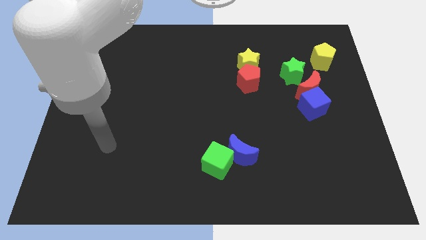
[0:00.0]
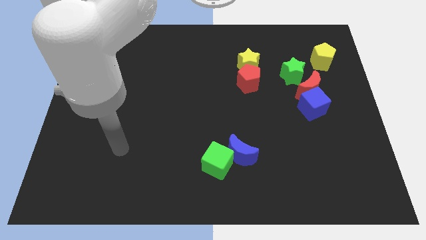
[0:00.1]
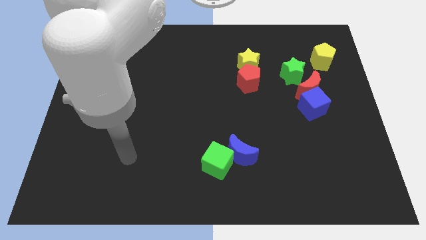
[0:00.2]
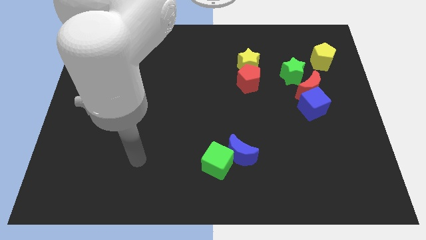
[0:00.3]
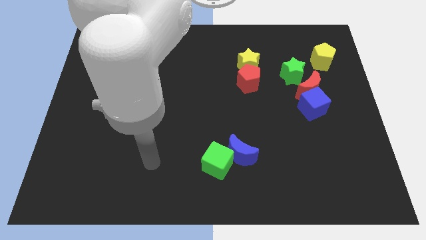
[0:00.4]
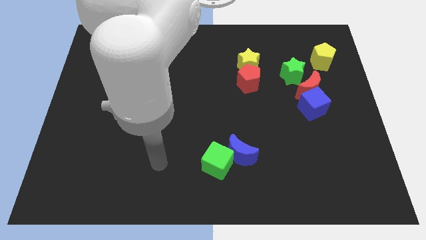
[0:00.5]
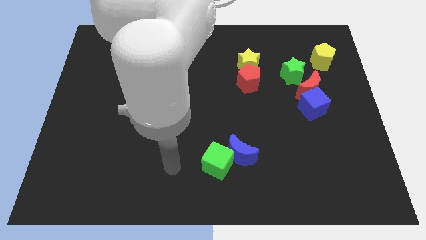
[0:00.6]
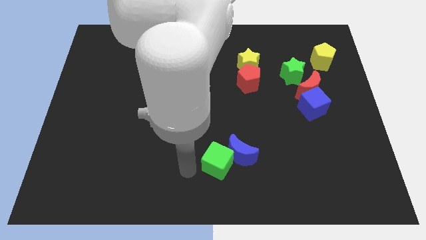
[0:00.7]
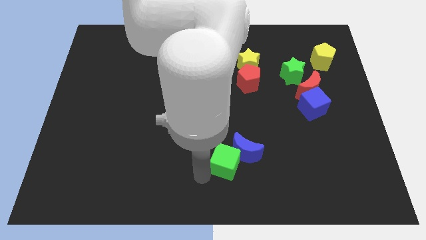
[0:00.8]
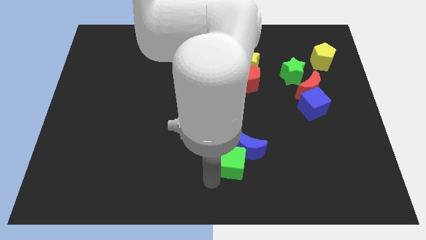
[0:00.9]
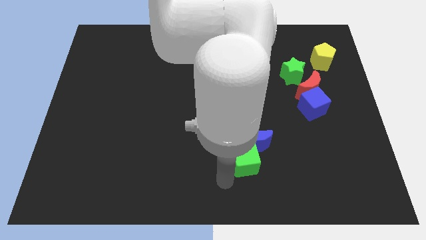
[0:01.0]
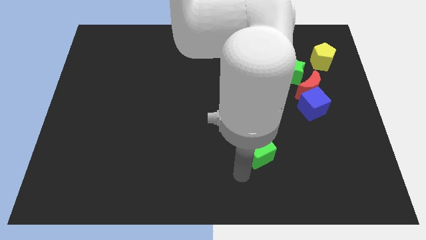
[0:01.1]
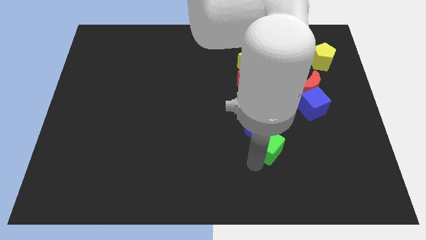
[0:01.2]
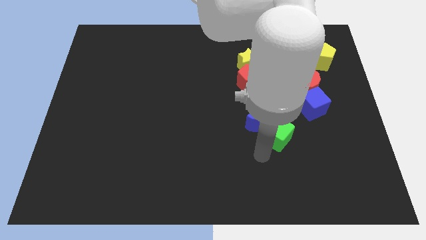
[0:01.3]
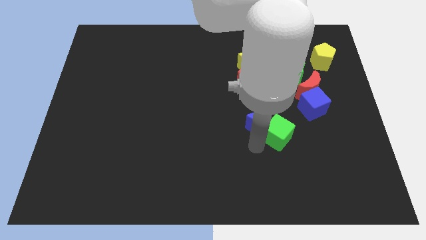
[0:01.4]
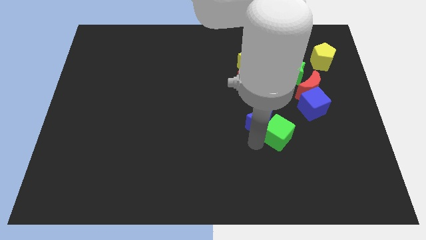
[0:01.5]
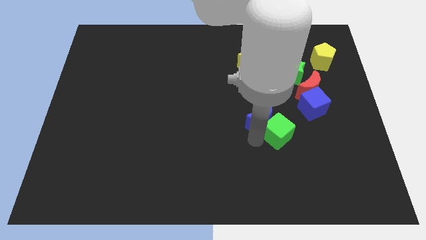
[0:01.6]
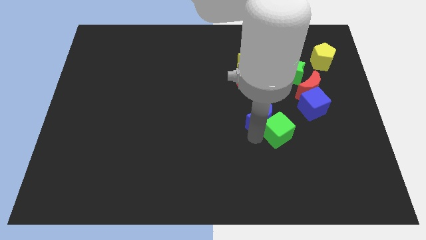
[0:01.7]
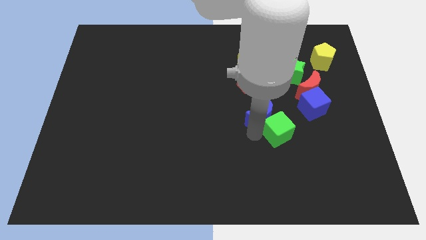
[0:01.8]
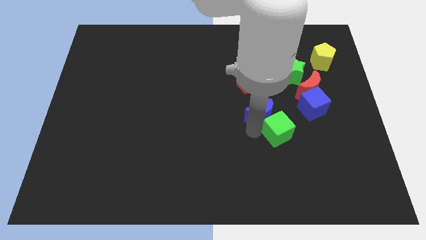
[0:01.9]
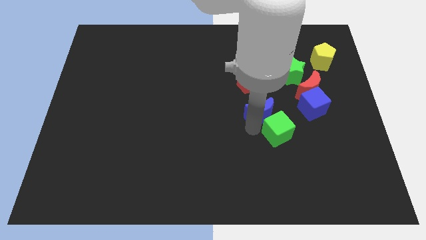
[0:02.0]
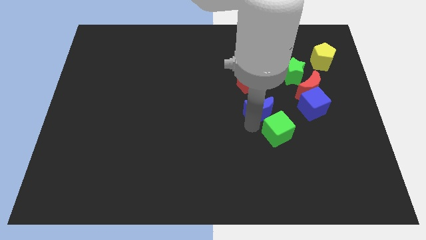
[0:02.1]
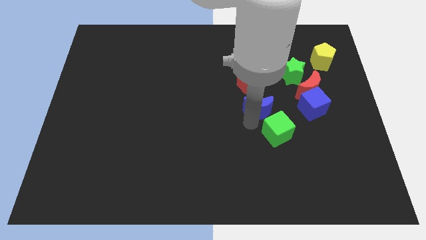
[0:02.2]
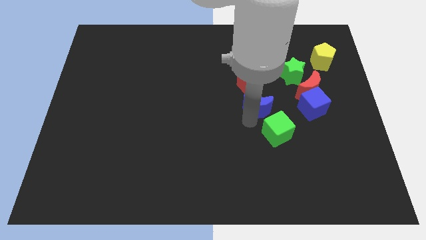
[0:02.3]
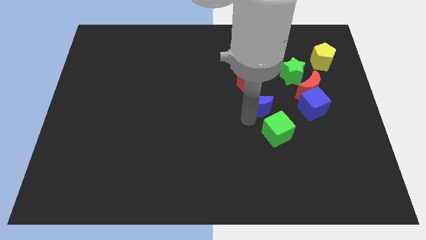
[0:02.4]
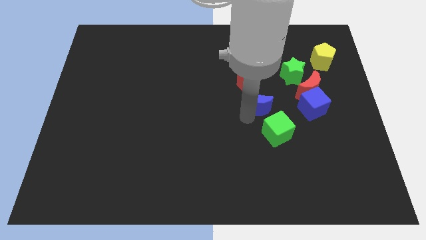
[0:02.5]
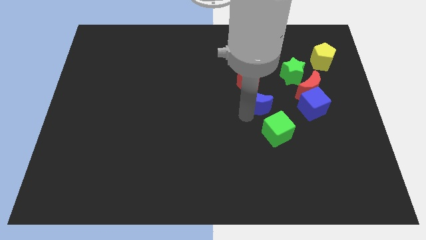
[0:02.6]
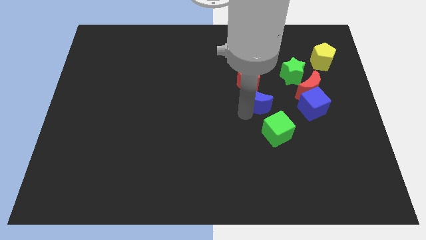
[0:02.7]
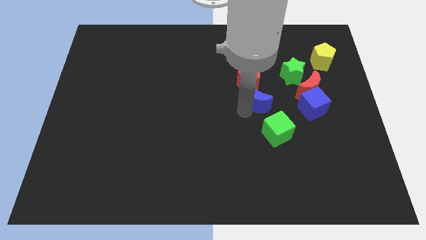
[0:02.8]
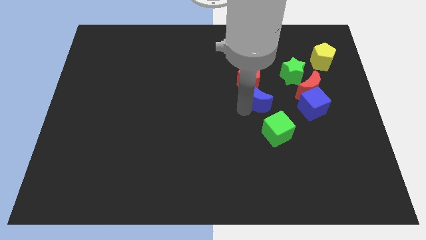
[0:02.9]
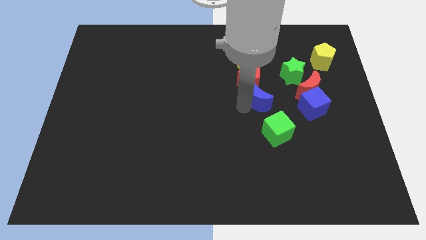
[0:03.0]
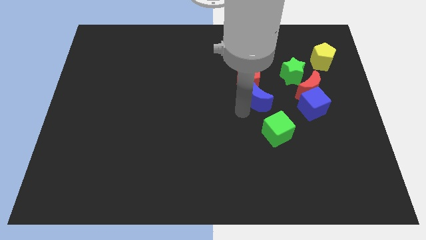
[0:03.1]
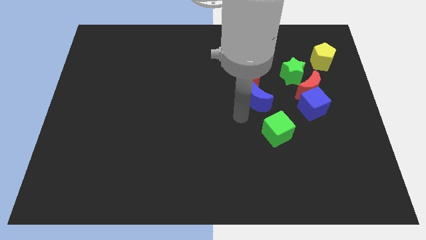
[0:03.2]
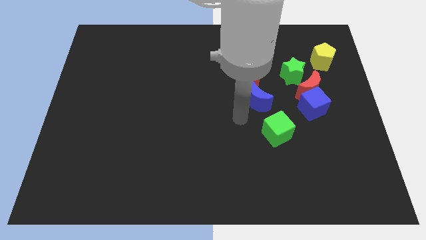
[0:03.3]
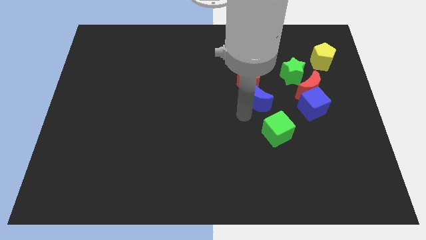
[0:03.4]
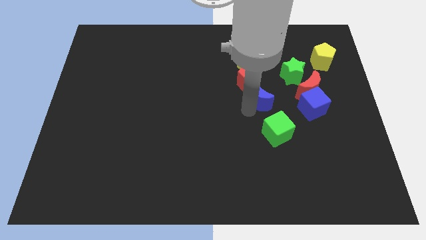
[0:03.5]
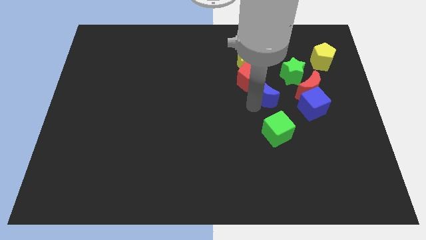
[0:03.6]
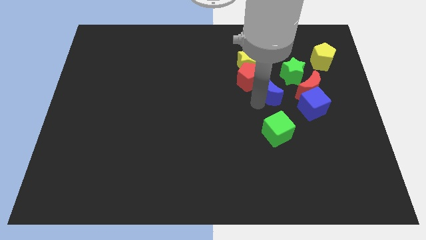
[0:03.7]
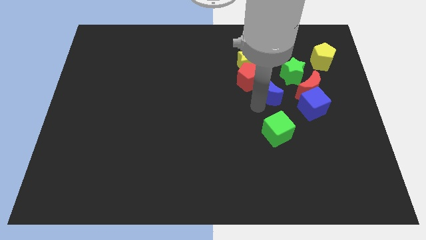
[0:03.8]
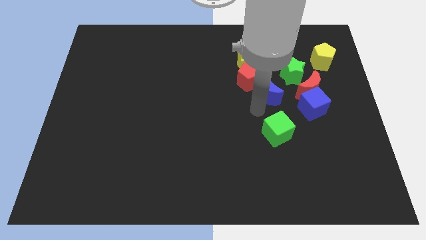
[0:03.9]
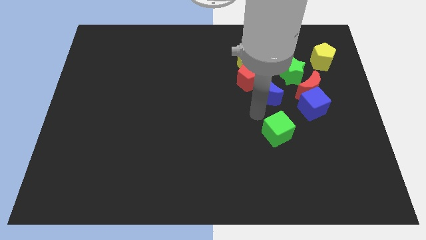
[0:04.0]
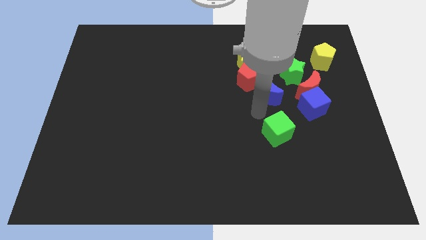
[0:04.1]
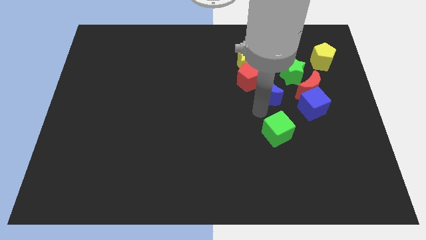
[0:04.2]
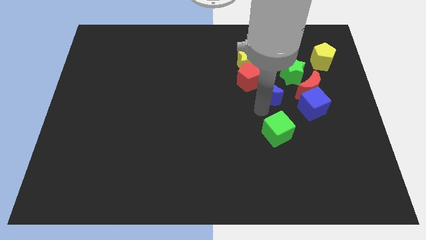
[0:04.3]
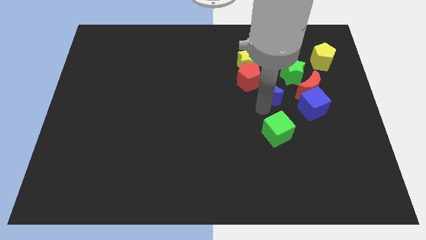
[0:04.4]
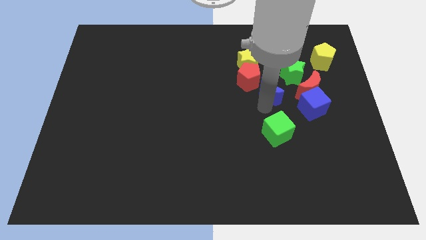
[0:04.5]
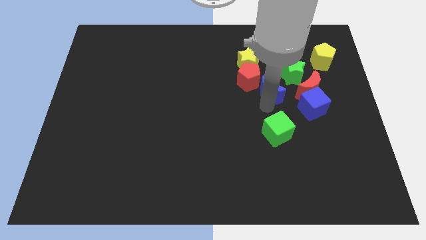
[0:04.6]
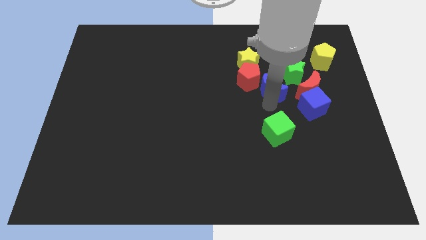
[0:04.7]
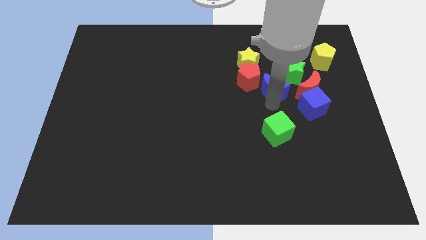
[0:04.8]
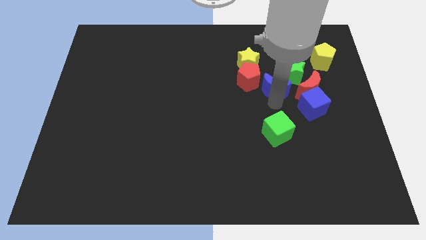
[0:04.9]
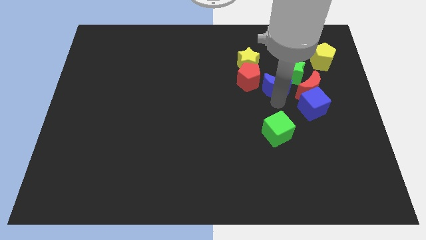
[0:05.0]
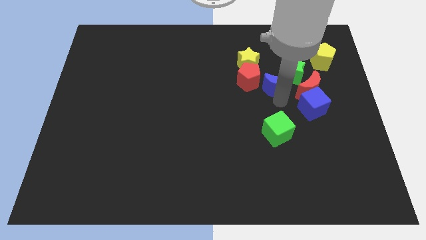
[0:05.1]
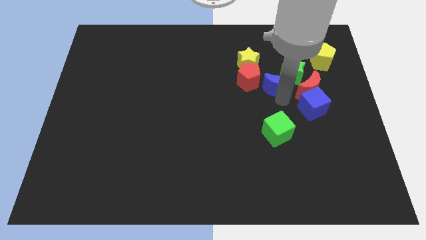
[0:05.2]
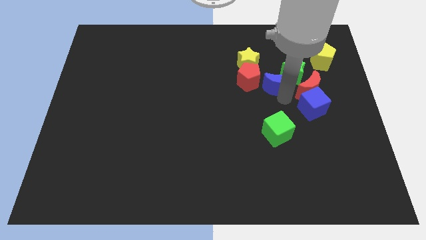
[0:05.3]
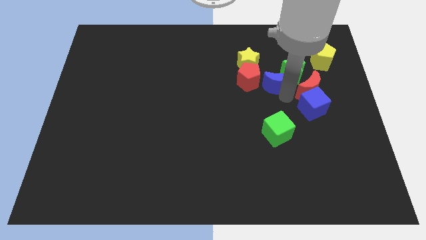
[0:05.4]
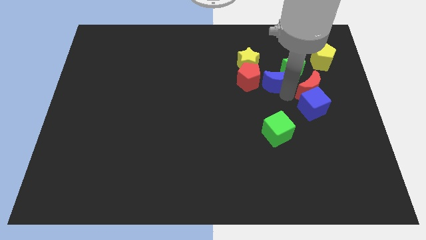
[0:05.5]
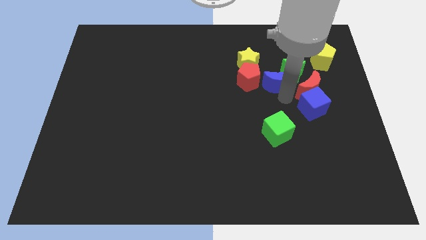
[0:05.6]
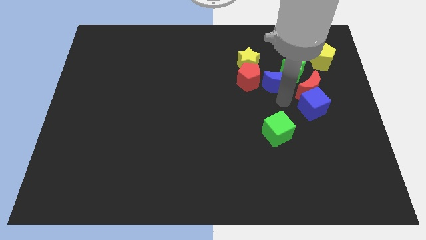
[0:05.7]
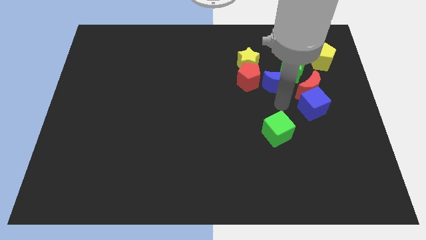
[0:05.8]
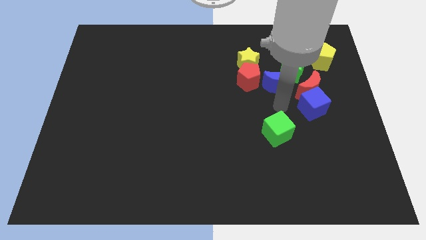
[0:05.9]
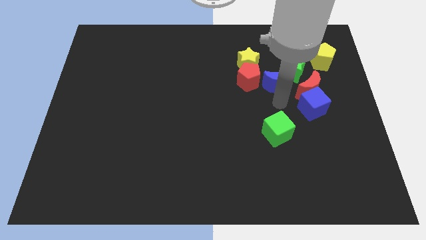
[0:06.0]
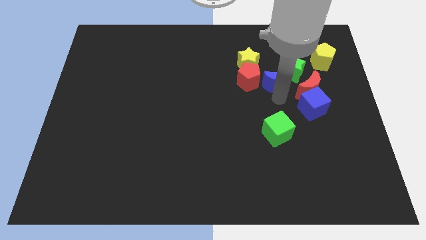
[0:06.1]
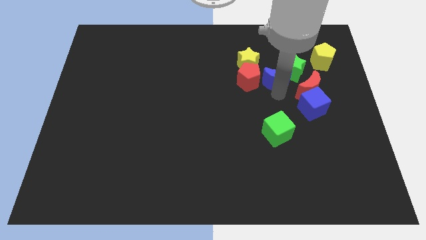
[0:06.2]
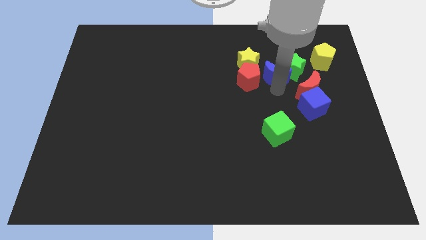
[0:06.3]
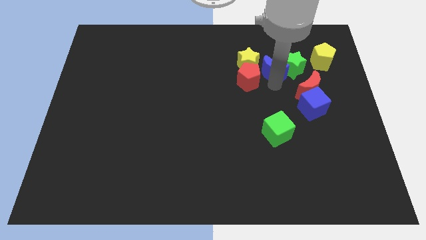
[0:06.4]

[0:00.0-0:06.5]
put the blue moon to the left of the yellow pentagon

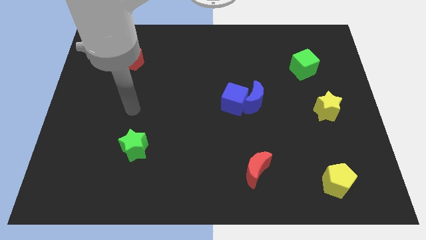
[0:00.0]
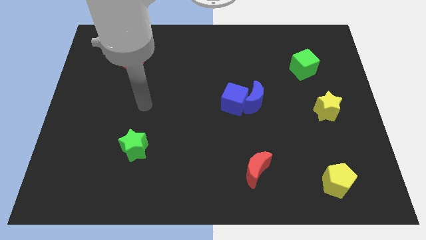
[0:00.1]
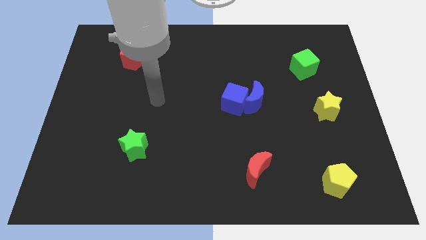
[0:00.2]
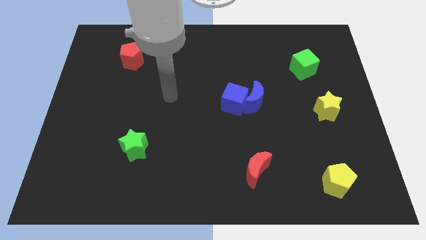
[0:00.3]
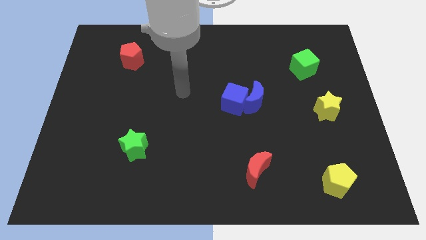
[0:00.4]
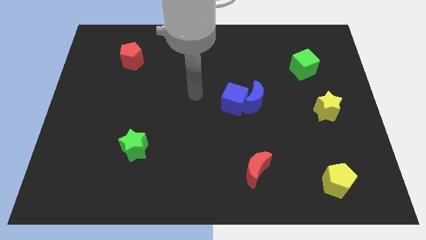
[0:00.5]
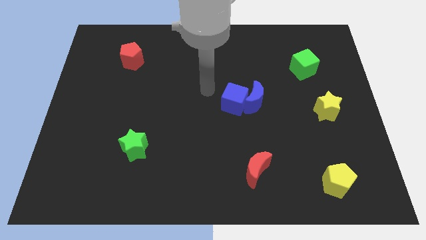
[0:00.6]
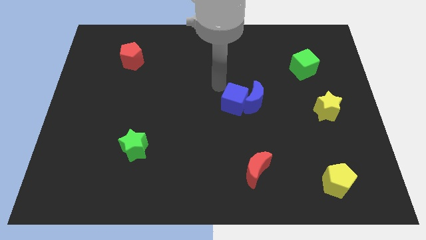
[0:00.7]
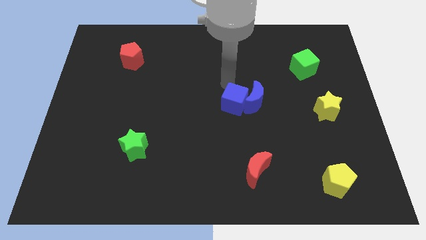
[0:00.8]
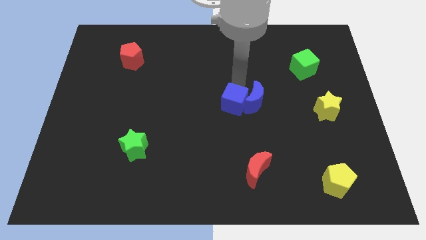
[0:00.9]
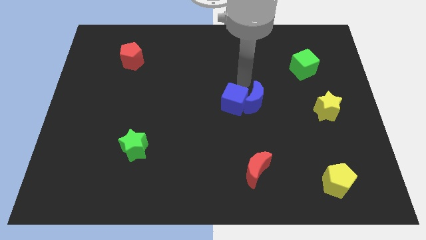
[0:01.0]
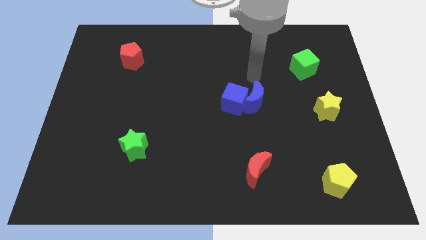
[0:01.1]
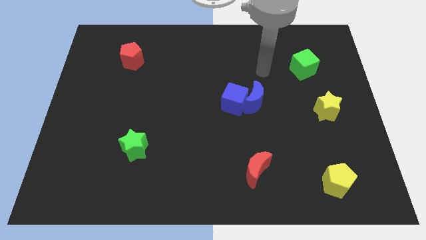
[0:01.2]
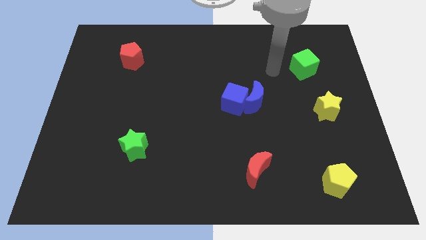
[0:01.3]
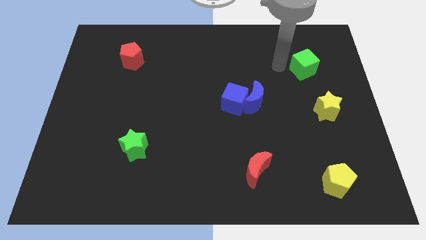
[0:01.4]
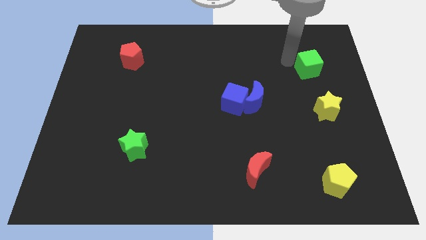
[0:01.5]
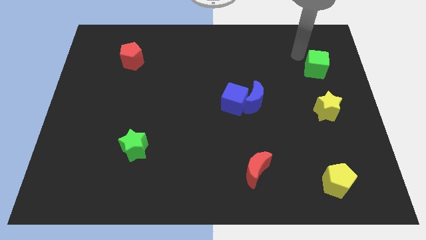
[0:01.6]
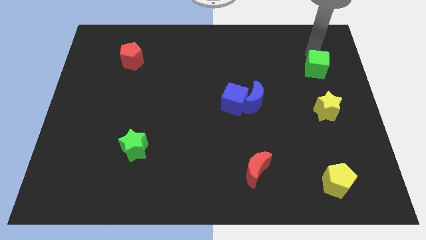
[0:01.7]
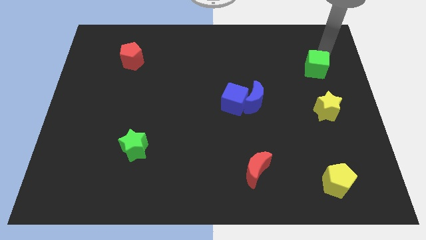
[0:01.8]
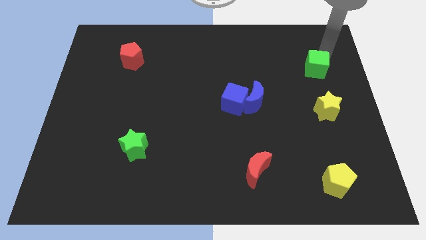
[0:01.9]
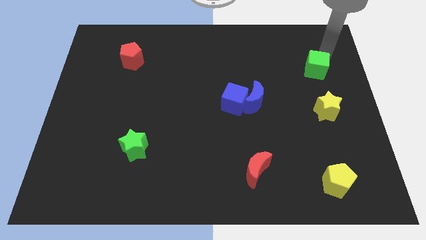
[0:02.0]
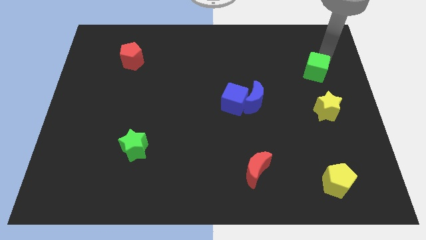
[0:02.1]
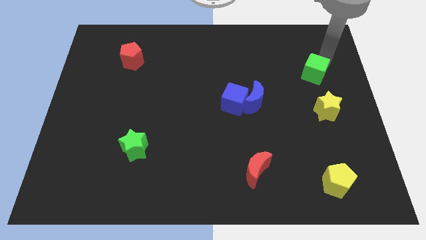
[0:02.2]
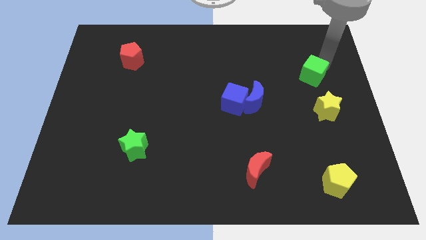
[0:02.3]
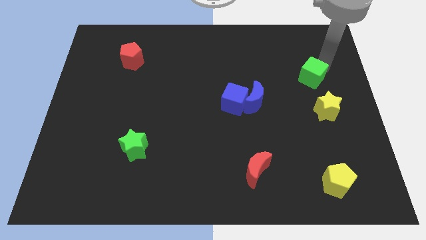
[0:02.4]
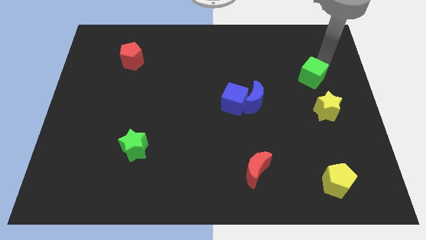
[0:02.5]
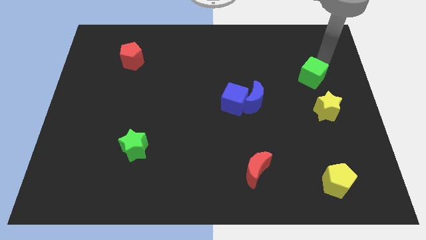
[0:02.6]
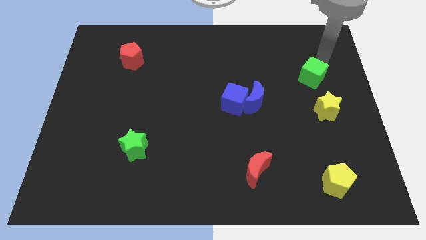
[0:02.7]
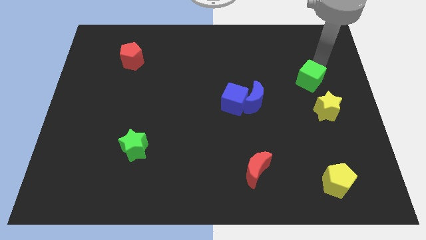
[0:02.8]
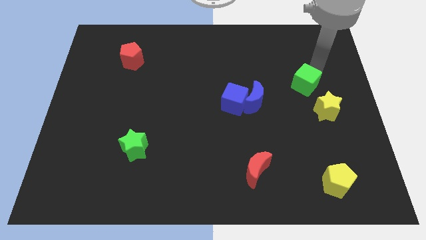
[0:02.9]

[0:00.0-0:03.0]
put the green cube to the top left of the yellow star
